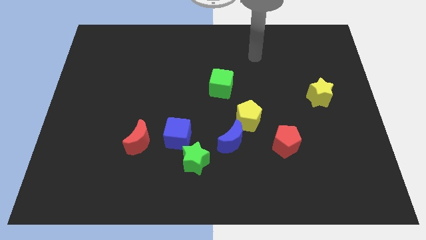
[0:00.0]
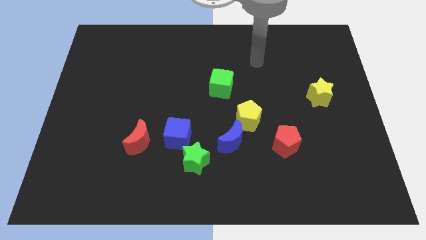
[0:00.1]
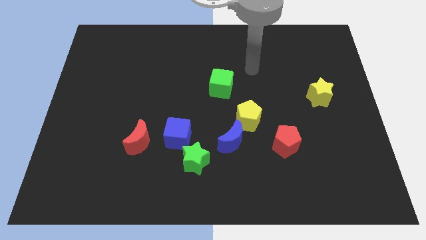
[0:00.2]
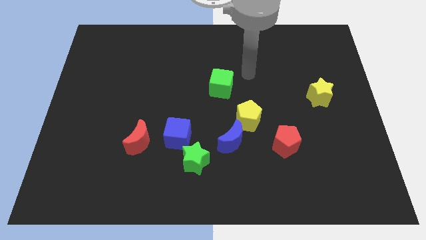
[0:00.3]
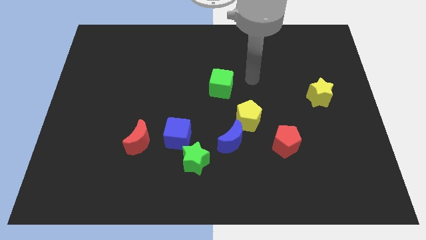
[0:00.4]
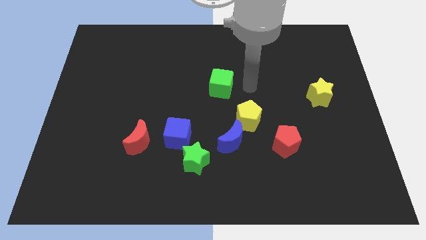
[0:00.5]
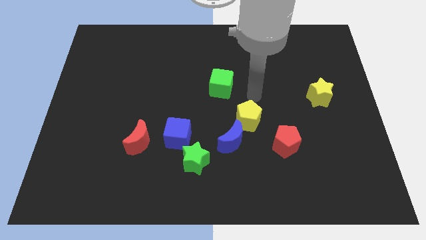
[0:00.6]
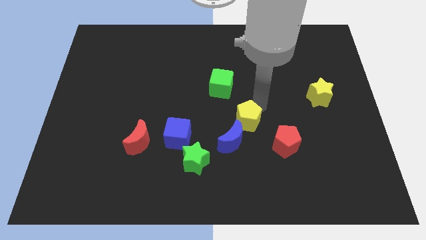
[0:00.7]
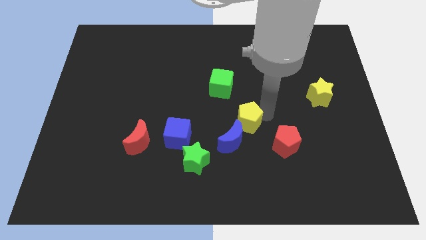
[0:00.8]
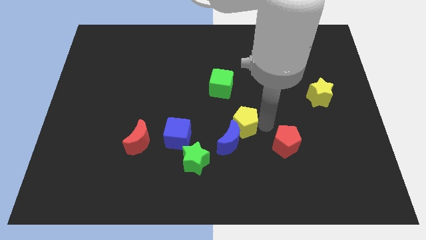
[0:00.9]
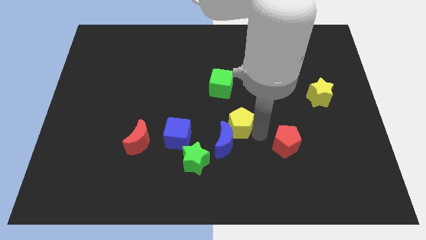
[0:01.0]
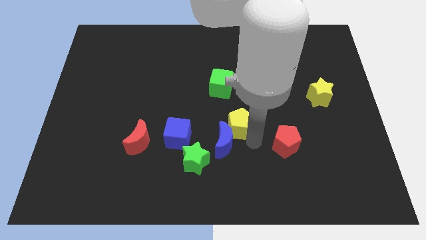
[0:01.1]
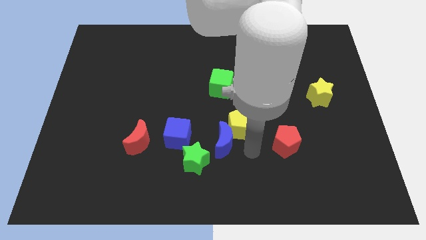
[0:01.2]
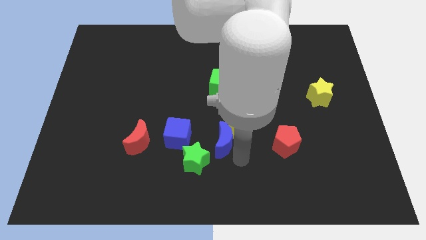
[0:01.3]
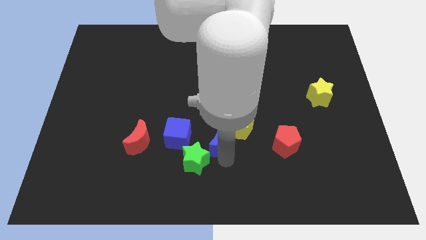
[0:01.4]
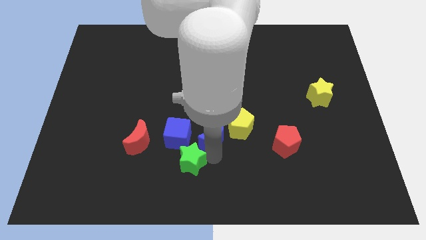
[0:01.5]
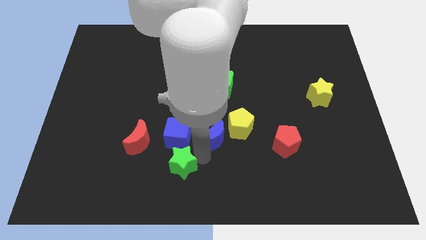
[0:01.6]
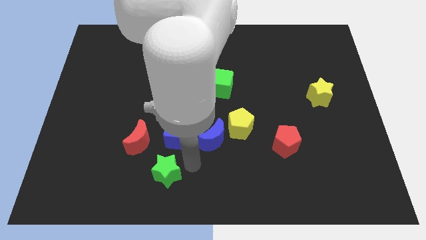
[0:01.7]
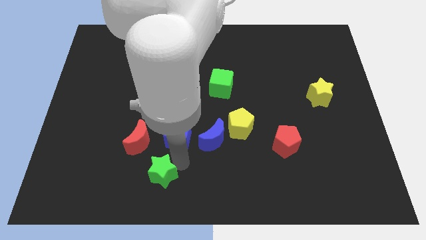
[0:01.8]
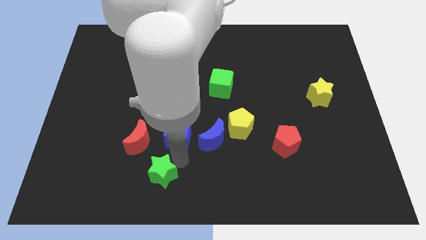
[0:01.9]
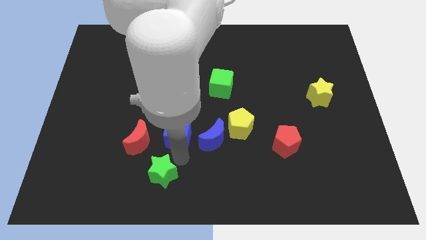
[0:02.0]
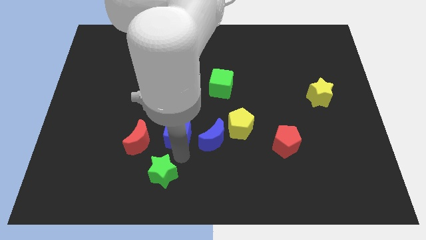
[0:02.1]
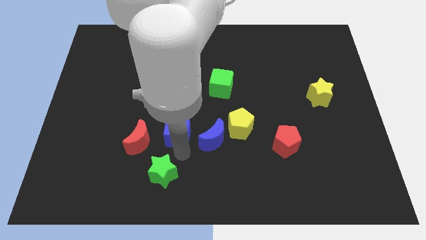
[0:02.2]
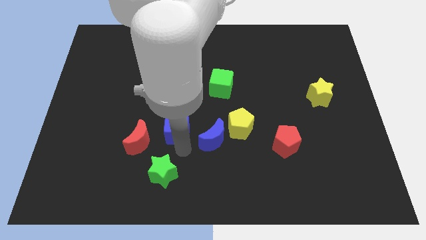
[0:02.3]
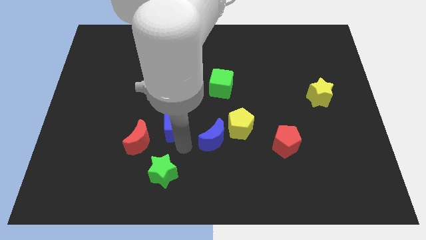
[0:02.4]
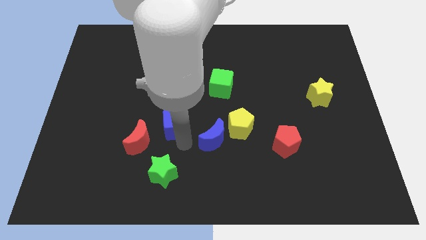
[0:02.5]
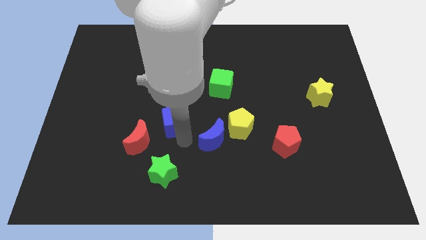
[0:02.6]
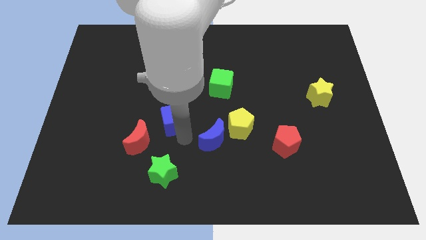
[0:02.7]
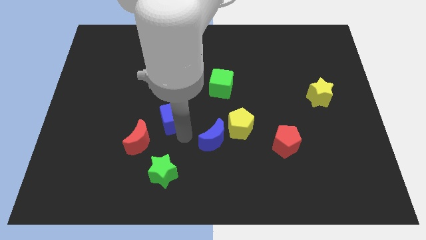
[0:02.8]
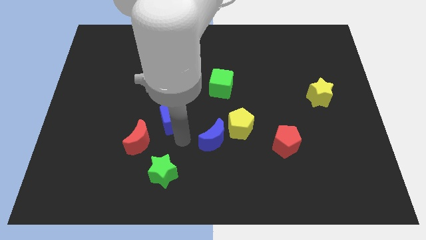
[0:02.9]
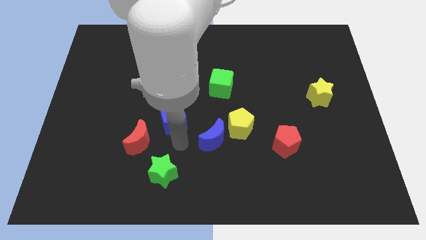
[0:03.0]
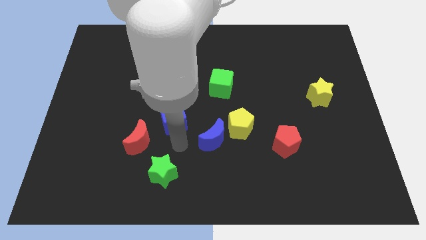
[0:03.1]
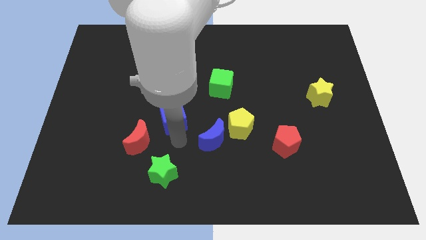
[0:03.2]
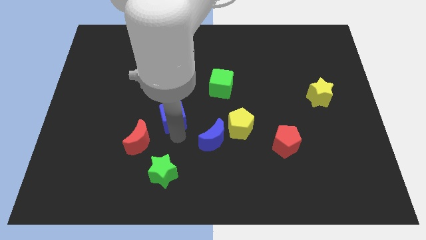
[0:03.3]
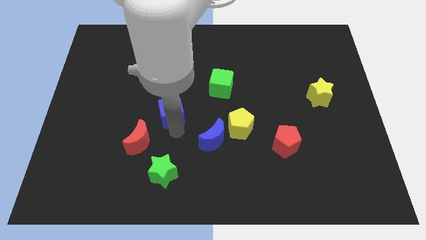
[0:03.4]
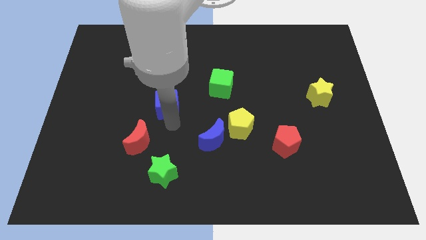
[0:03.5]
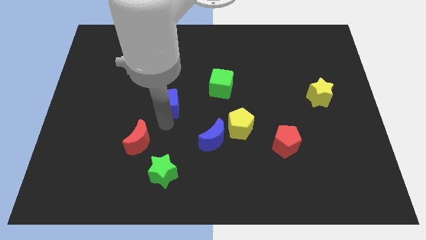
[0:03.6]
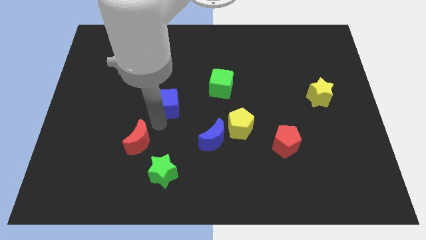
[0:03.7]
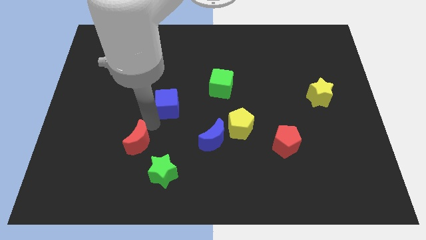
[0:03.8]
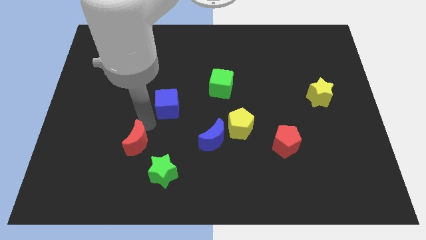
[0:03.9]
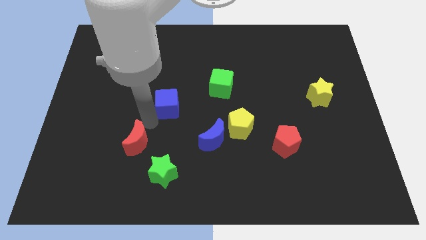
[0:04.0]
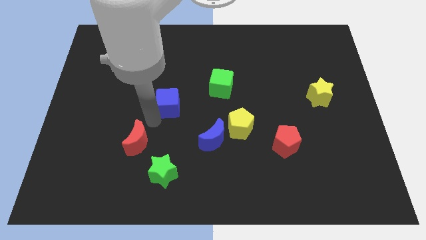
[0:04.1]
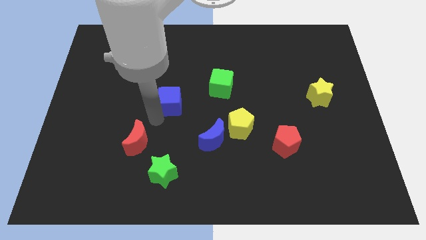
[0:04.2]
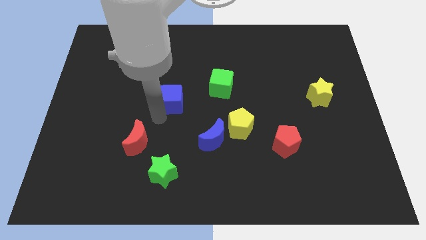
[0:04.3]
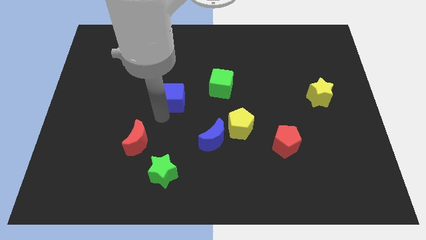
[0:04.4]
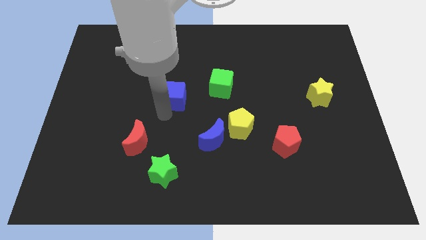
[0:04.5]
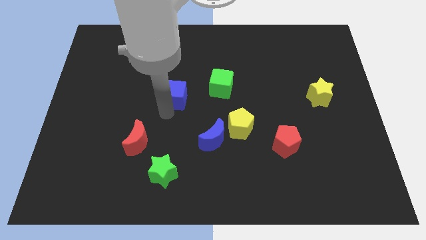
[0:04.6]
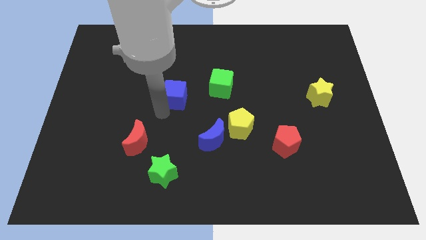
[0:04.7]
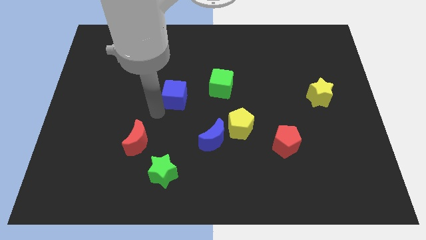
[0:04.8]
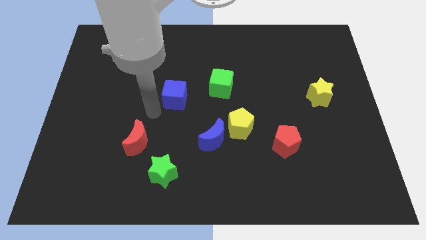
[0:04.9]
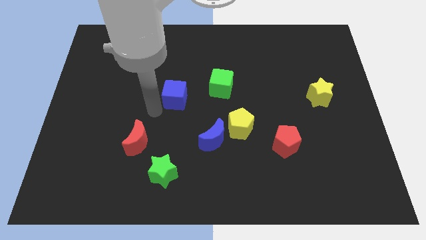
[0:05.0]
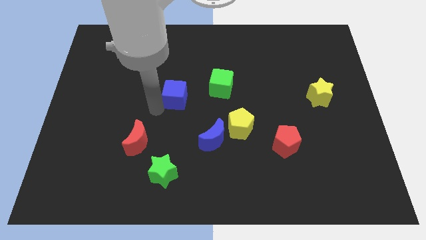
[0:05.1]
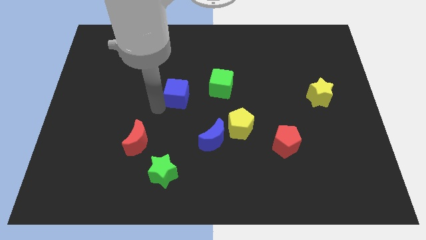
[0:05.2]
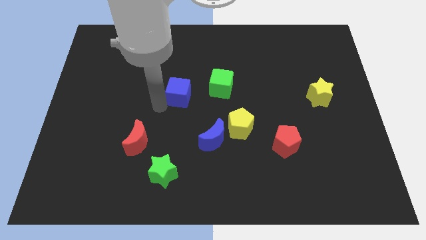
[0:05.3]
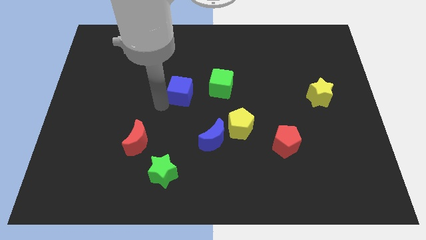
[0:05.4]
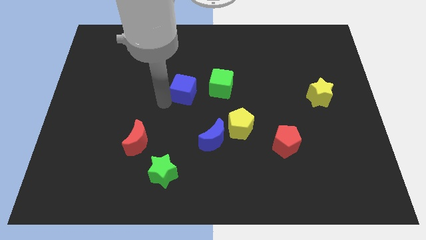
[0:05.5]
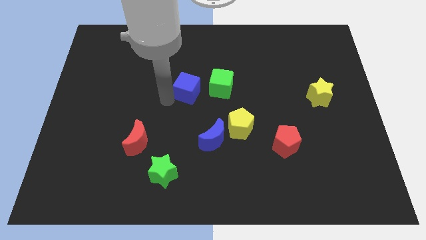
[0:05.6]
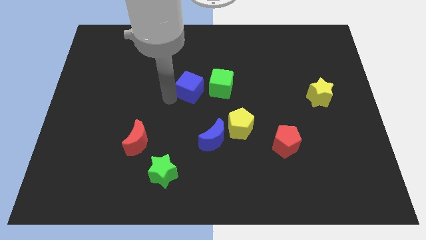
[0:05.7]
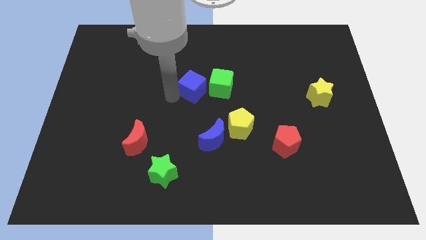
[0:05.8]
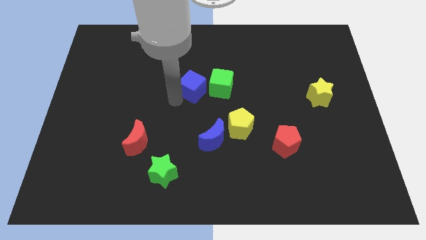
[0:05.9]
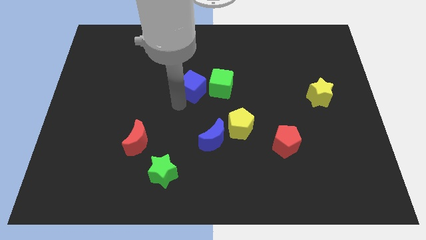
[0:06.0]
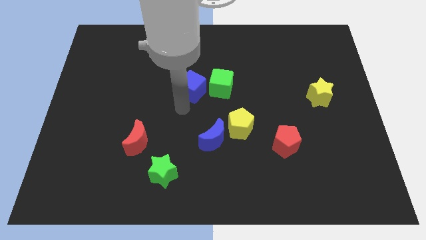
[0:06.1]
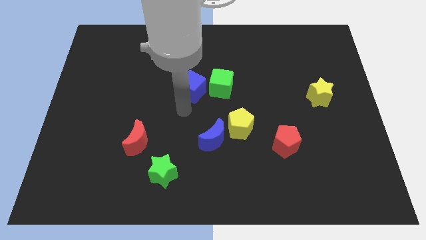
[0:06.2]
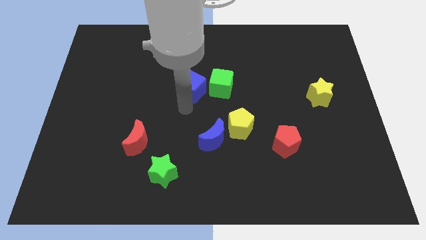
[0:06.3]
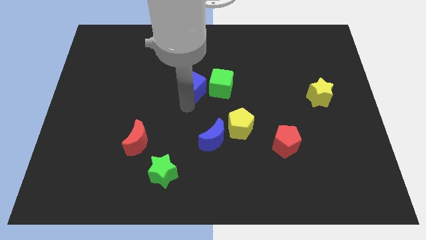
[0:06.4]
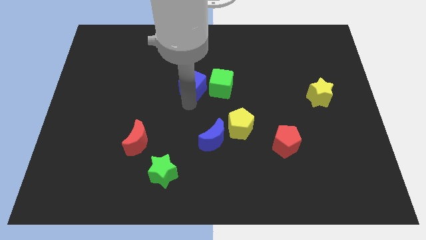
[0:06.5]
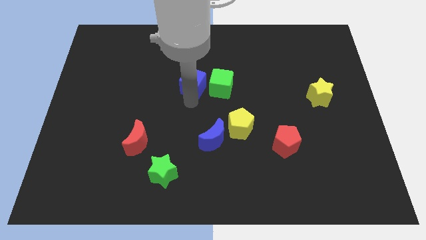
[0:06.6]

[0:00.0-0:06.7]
slide the blue cube diagonally up and to the left of the green cube

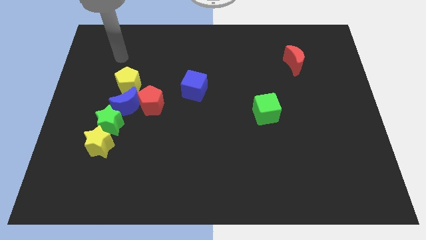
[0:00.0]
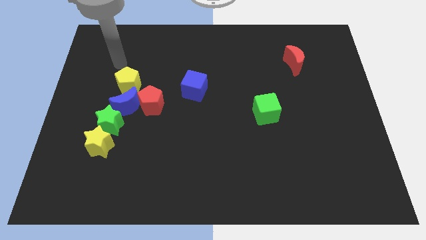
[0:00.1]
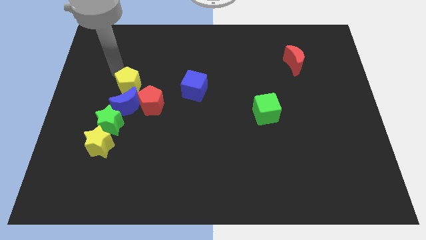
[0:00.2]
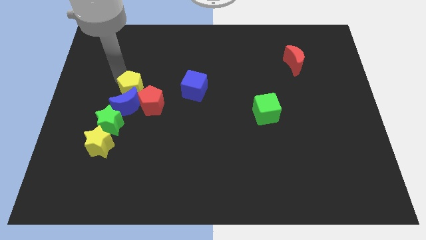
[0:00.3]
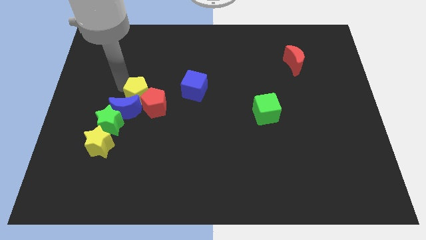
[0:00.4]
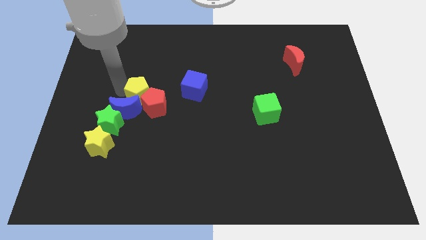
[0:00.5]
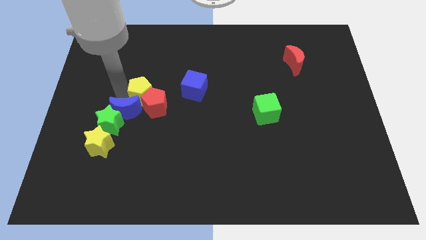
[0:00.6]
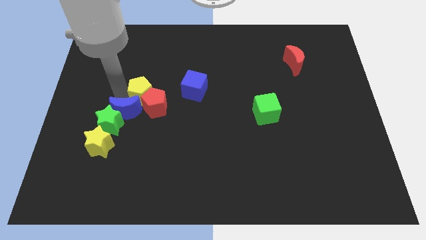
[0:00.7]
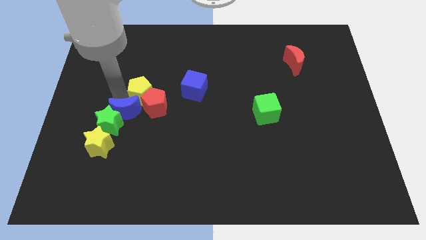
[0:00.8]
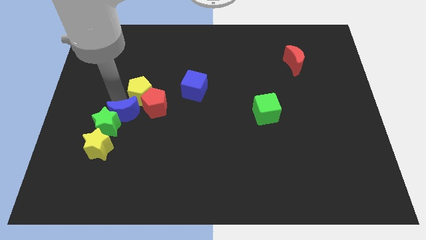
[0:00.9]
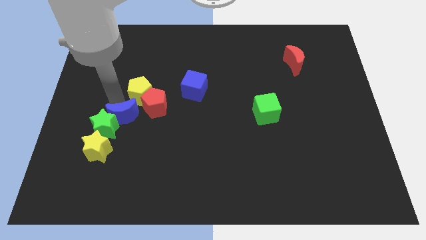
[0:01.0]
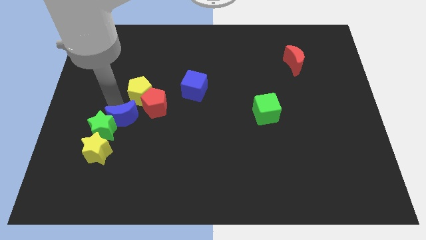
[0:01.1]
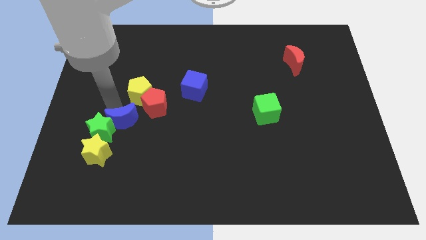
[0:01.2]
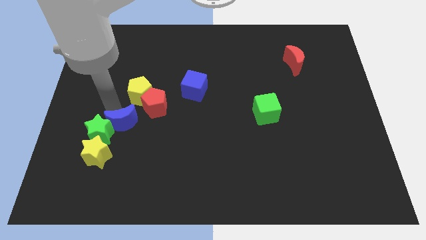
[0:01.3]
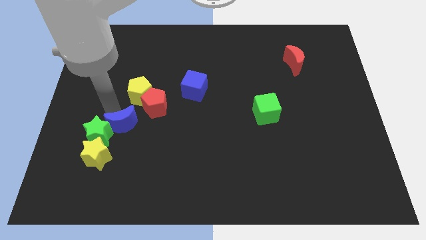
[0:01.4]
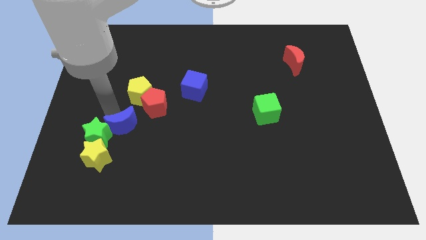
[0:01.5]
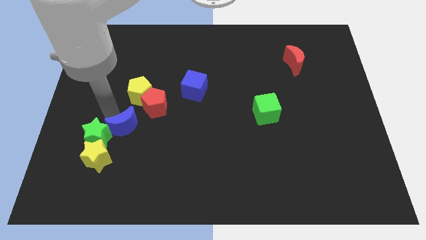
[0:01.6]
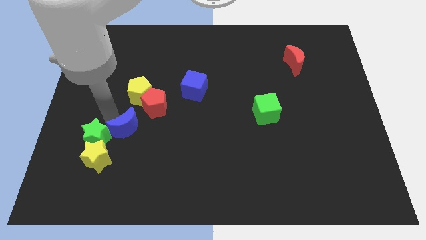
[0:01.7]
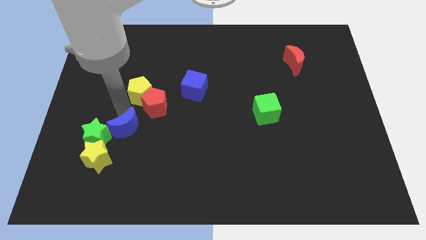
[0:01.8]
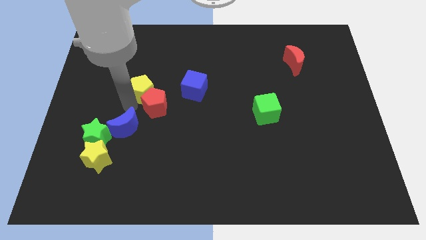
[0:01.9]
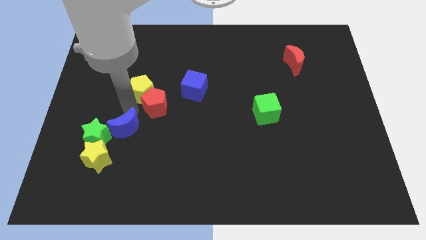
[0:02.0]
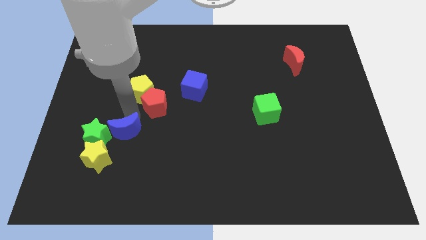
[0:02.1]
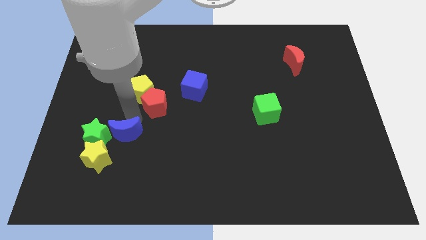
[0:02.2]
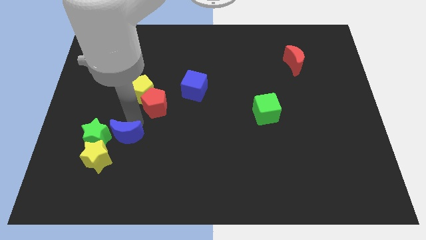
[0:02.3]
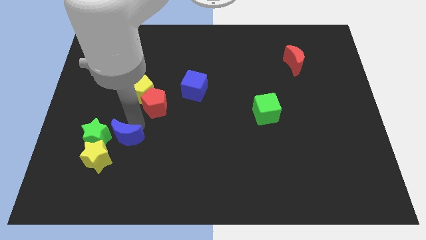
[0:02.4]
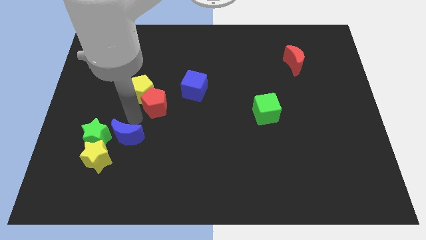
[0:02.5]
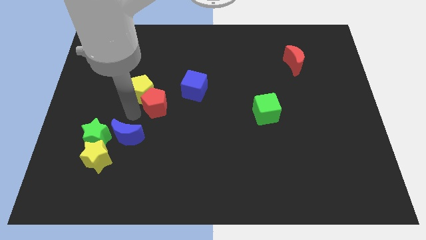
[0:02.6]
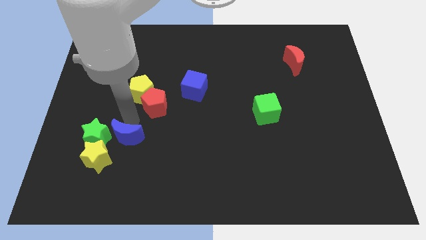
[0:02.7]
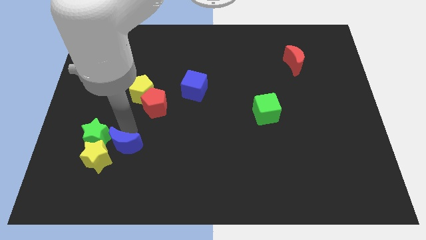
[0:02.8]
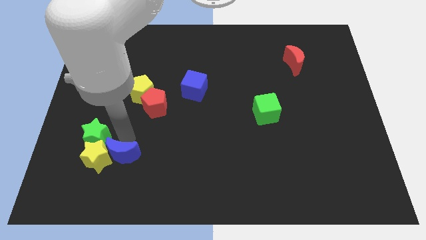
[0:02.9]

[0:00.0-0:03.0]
move the blue moon diagonally down and to the right of the yellow star
